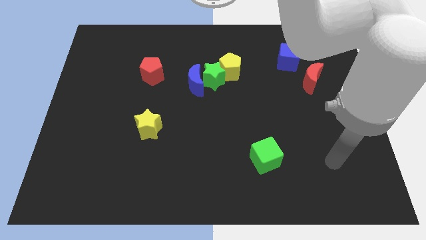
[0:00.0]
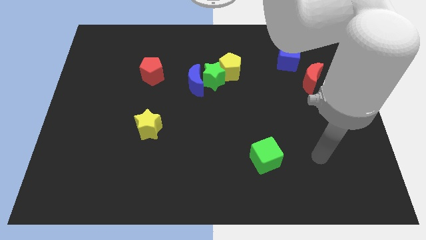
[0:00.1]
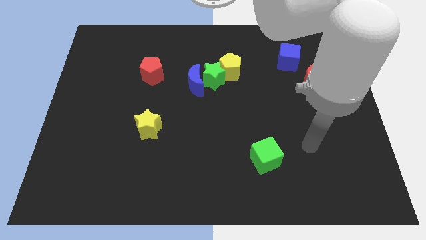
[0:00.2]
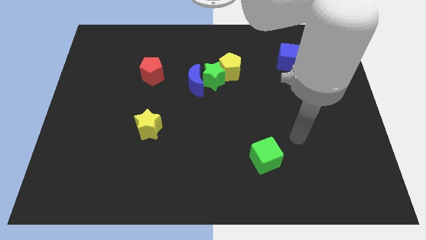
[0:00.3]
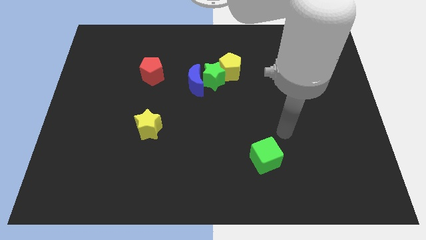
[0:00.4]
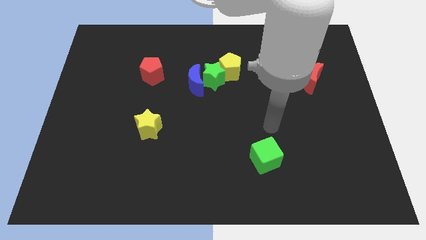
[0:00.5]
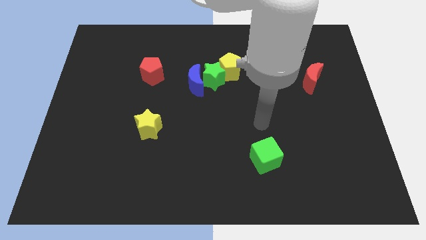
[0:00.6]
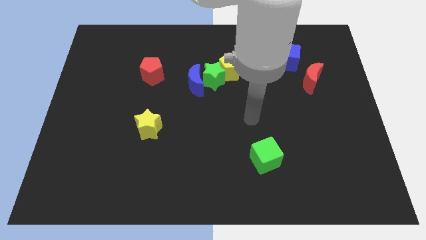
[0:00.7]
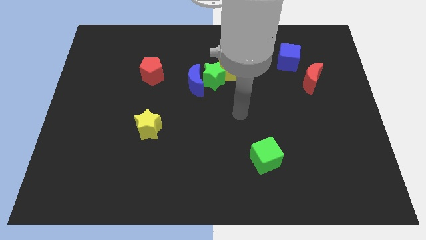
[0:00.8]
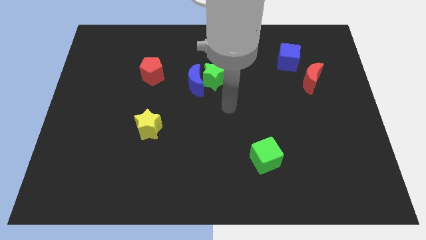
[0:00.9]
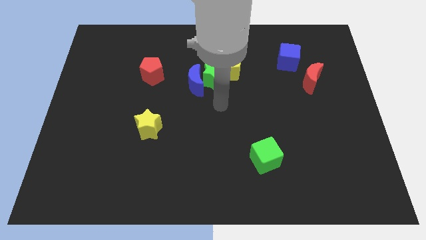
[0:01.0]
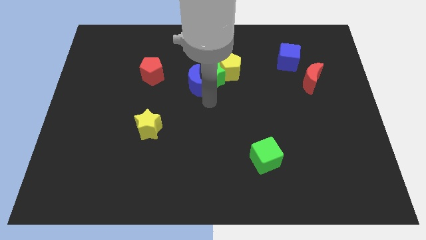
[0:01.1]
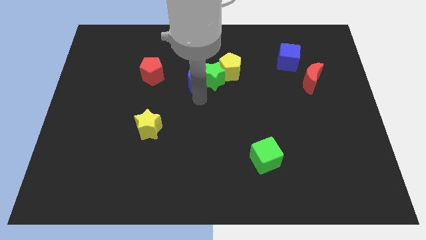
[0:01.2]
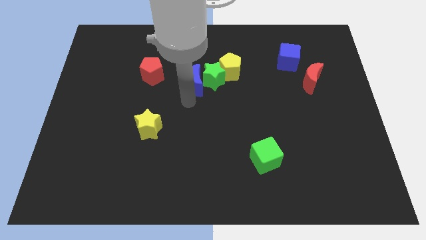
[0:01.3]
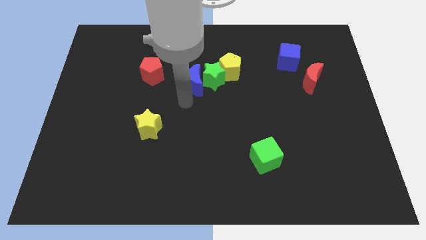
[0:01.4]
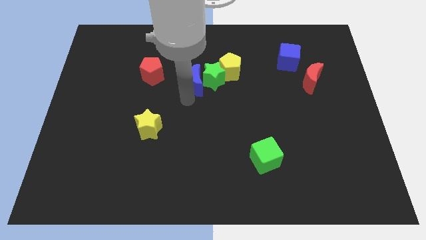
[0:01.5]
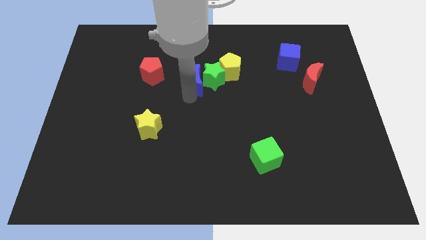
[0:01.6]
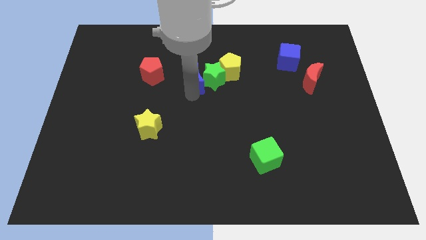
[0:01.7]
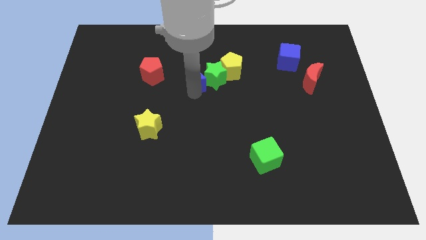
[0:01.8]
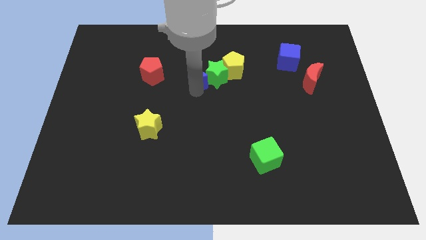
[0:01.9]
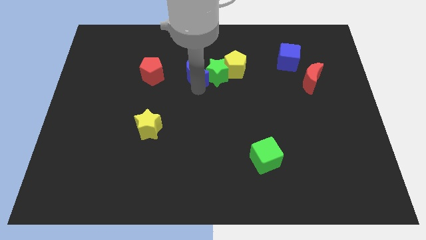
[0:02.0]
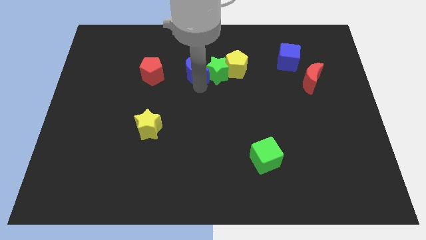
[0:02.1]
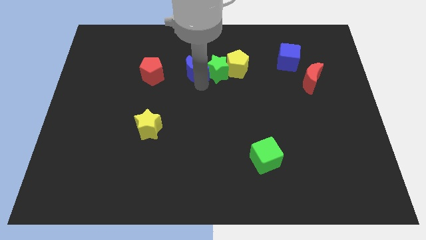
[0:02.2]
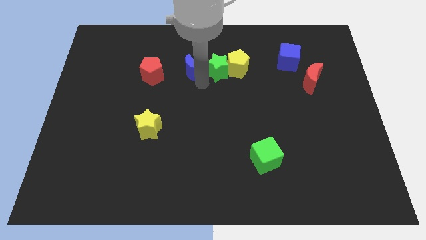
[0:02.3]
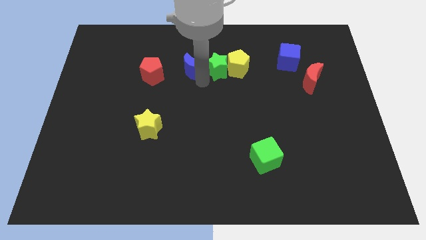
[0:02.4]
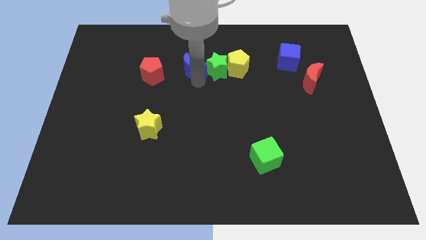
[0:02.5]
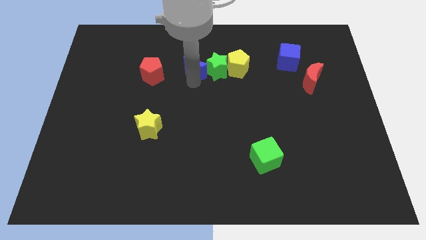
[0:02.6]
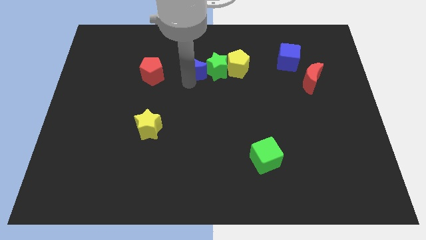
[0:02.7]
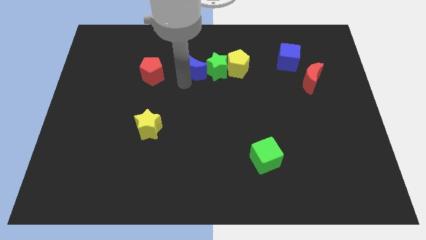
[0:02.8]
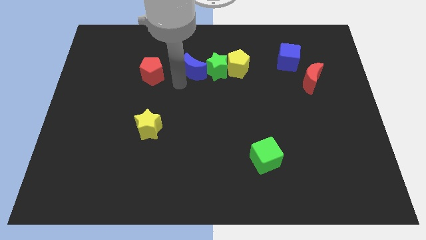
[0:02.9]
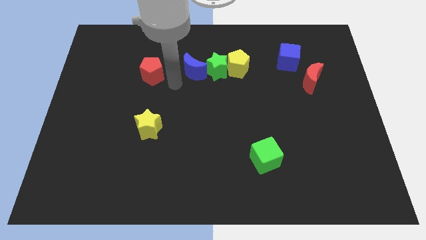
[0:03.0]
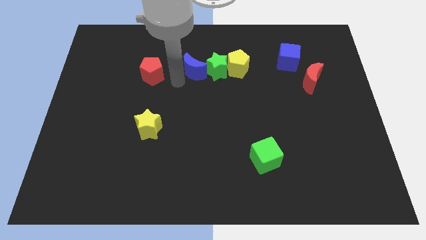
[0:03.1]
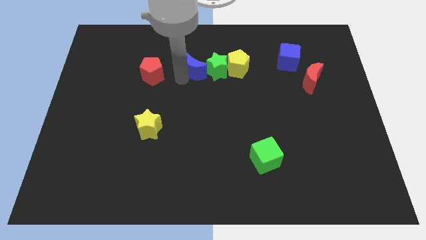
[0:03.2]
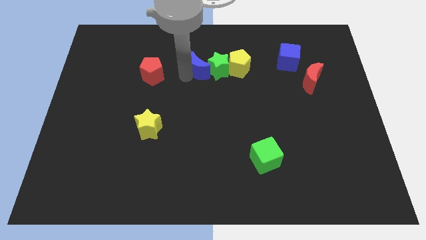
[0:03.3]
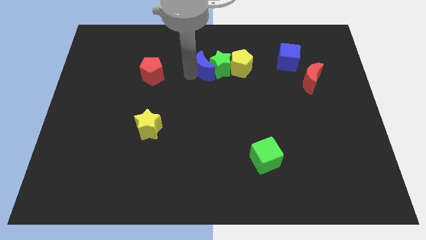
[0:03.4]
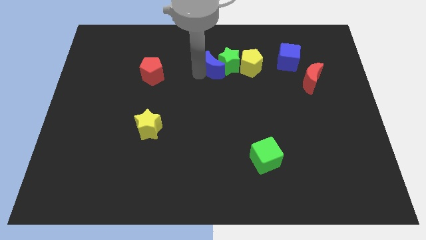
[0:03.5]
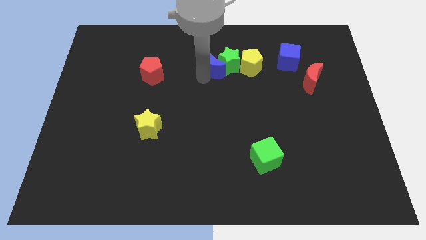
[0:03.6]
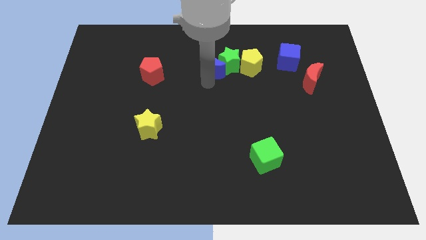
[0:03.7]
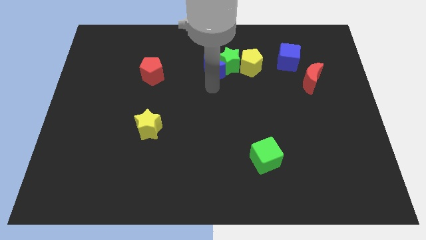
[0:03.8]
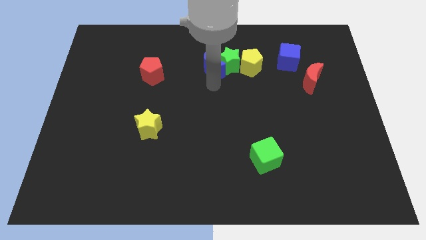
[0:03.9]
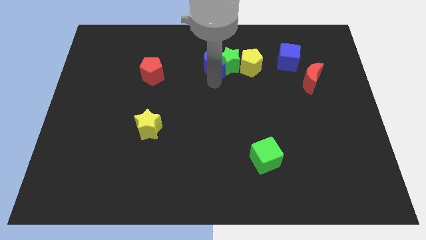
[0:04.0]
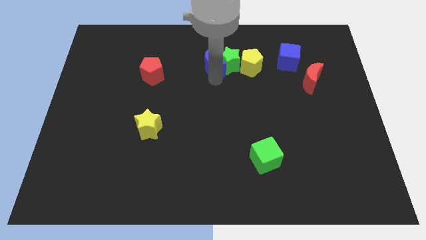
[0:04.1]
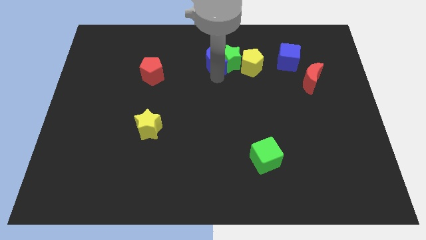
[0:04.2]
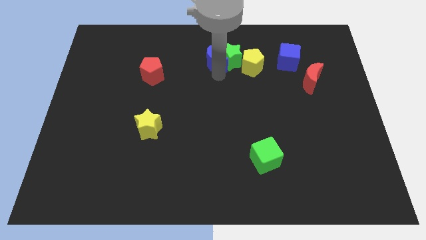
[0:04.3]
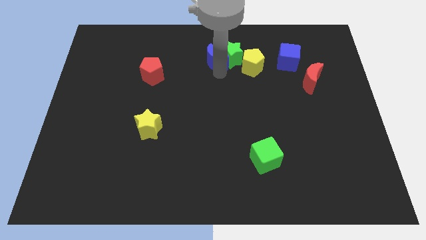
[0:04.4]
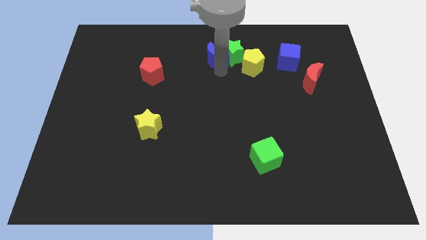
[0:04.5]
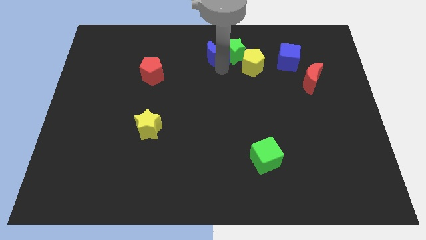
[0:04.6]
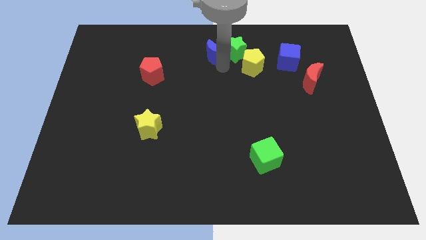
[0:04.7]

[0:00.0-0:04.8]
move the blue moon to the top side

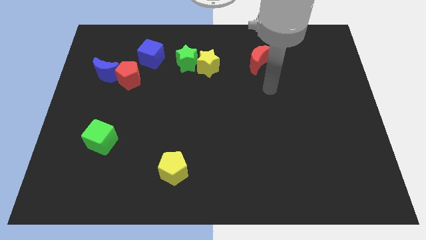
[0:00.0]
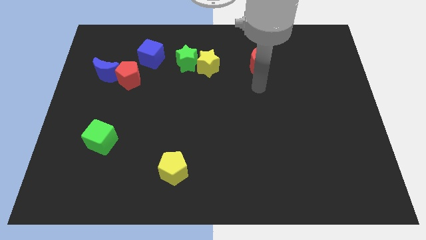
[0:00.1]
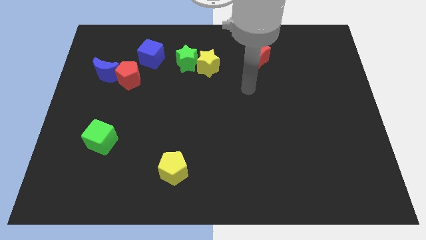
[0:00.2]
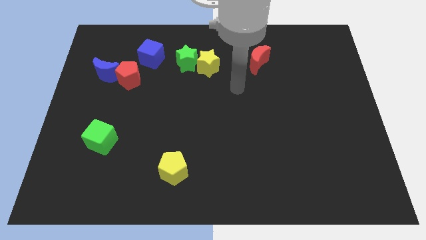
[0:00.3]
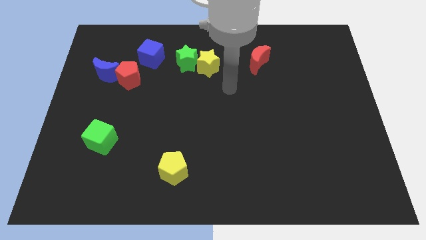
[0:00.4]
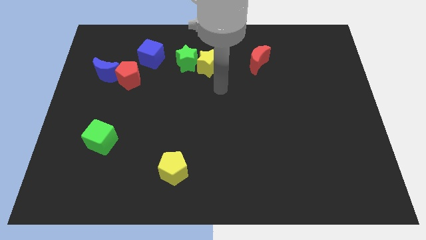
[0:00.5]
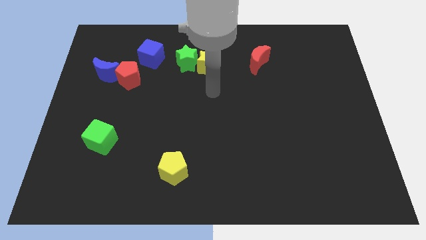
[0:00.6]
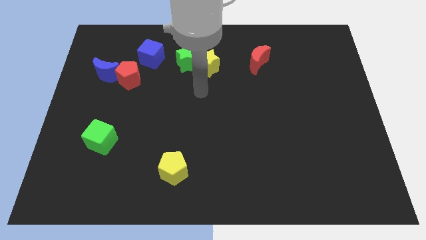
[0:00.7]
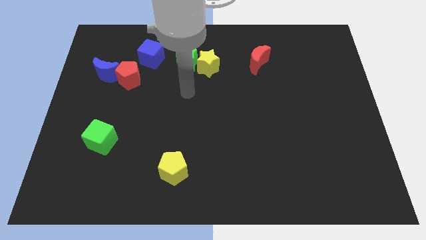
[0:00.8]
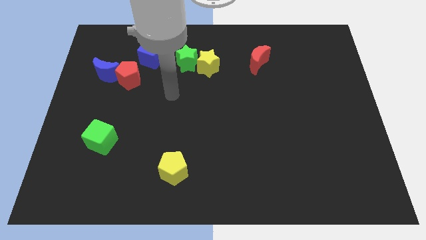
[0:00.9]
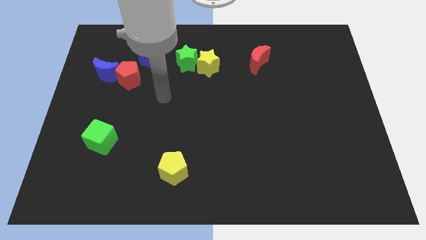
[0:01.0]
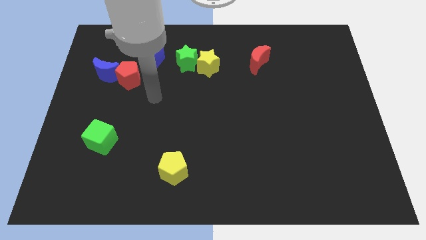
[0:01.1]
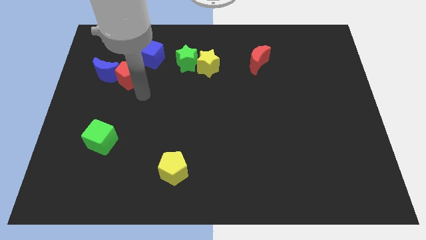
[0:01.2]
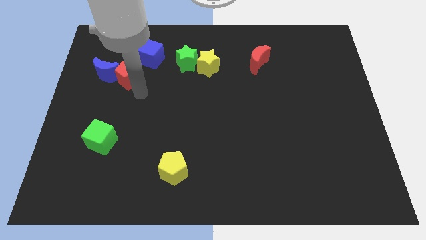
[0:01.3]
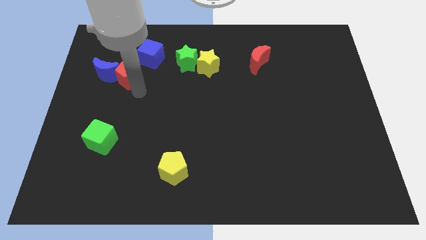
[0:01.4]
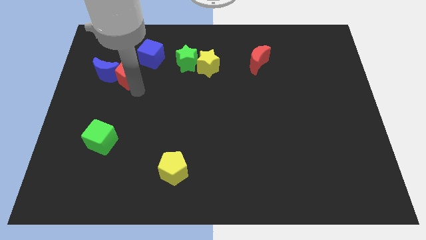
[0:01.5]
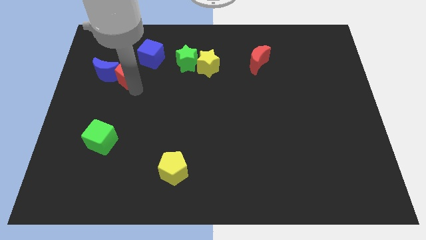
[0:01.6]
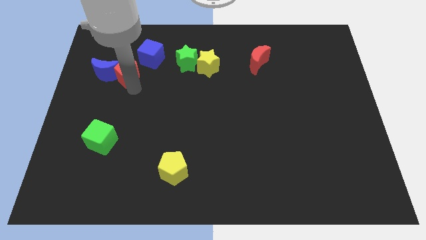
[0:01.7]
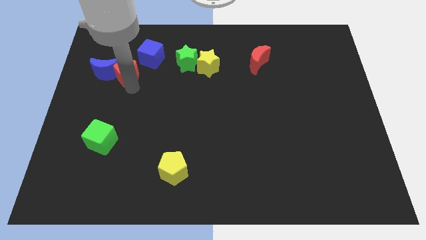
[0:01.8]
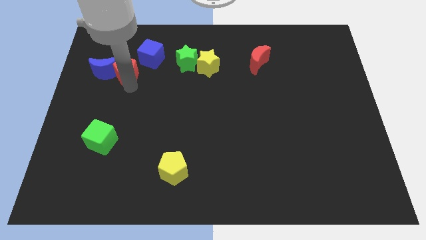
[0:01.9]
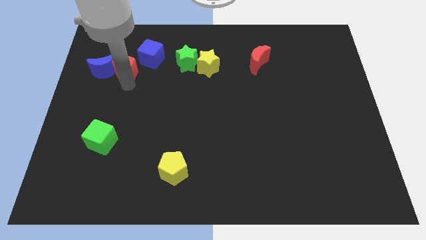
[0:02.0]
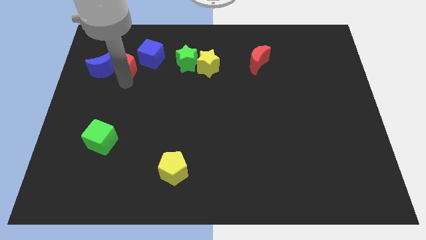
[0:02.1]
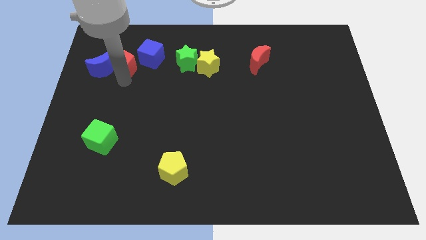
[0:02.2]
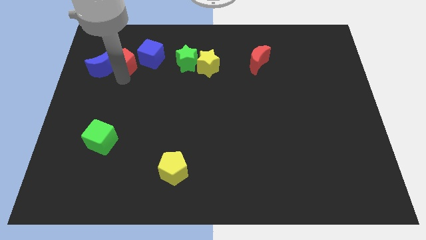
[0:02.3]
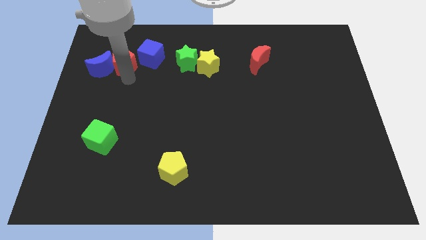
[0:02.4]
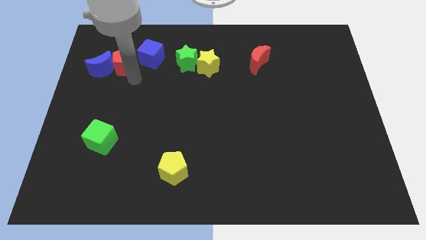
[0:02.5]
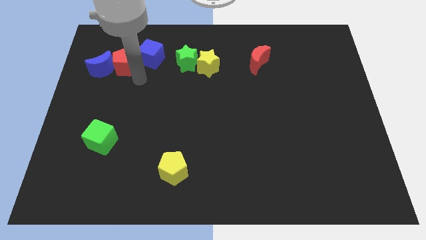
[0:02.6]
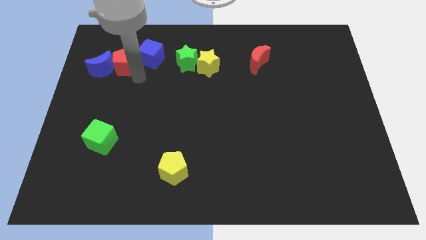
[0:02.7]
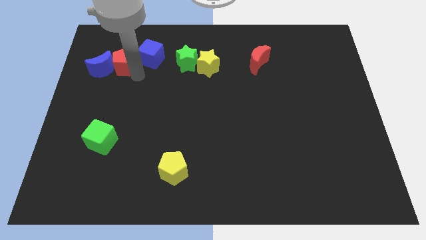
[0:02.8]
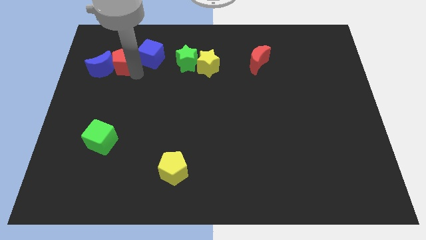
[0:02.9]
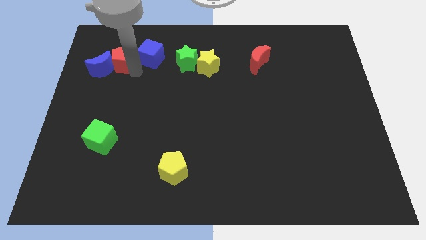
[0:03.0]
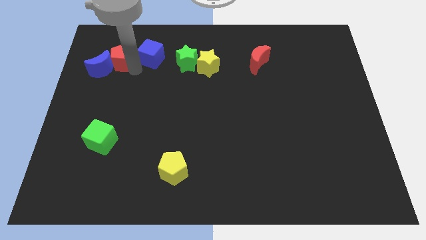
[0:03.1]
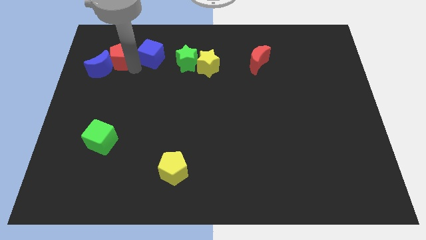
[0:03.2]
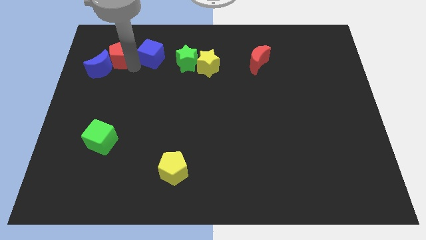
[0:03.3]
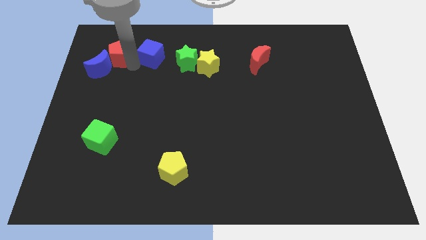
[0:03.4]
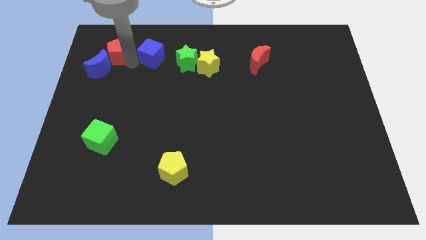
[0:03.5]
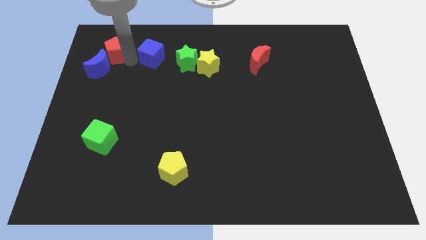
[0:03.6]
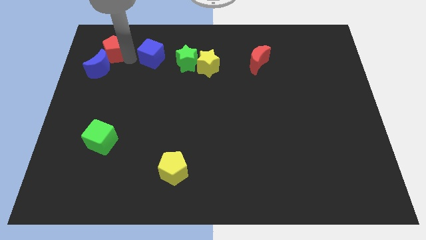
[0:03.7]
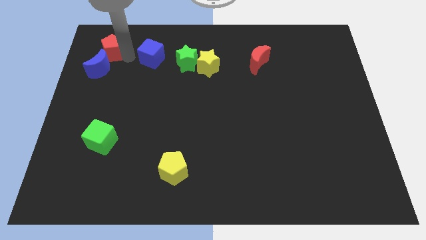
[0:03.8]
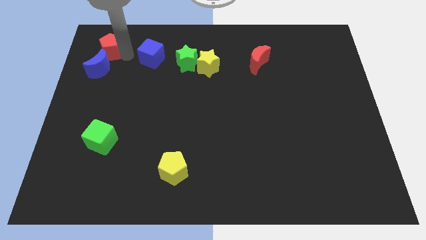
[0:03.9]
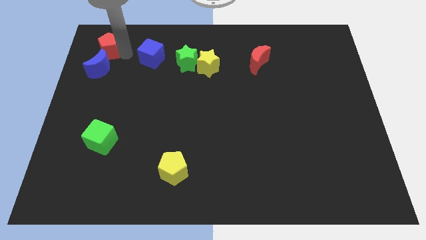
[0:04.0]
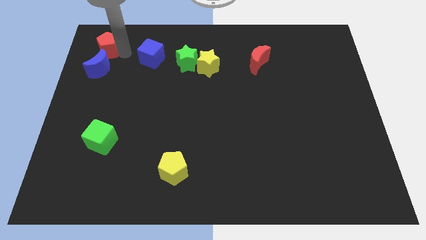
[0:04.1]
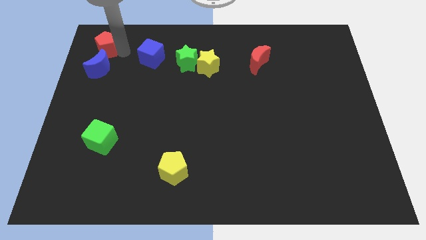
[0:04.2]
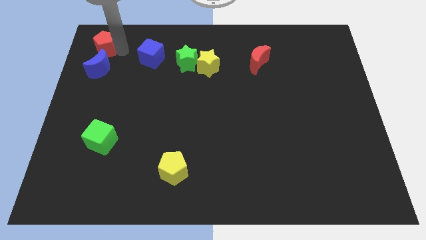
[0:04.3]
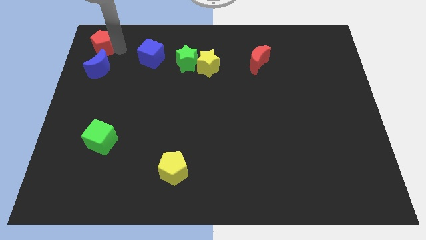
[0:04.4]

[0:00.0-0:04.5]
move the red pentagon to the top left corner
